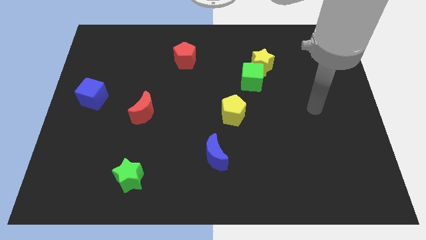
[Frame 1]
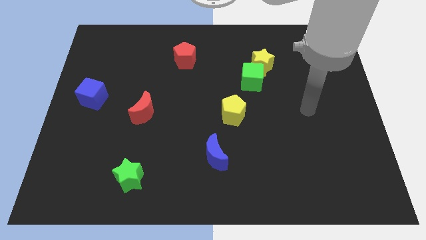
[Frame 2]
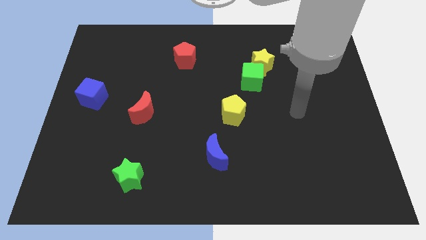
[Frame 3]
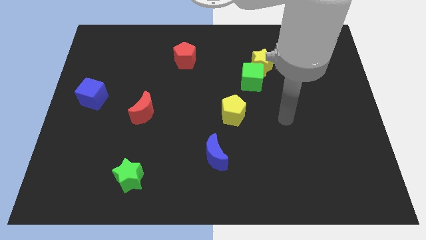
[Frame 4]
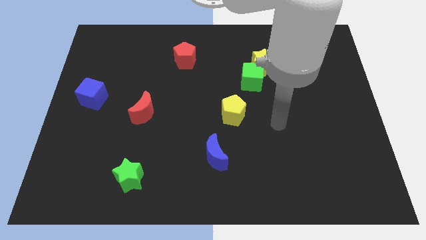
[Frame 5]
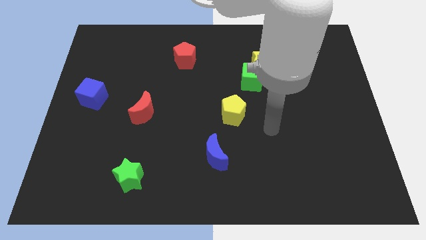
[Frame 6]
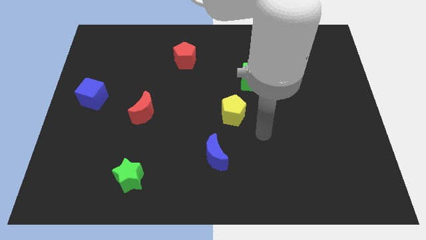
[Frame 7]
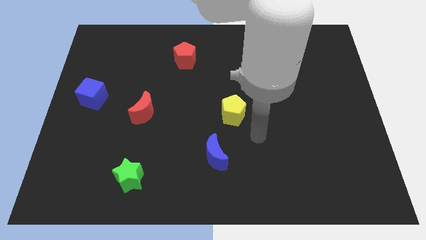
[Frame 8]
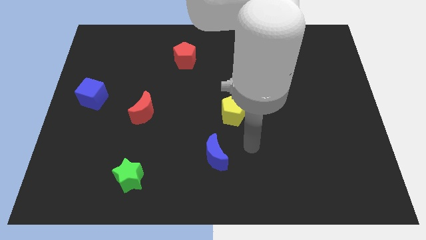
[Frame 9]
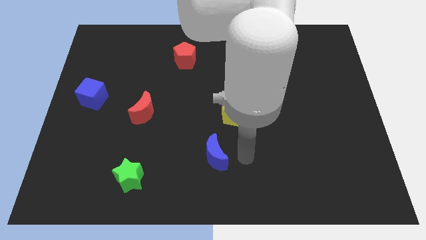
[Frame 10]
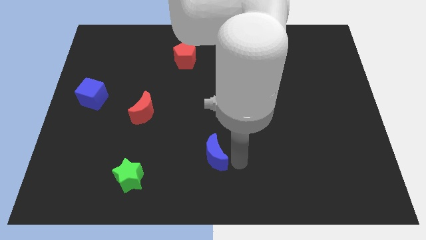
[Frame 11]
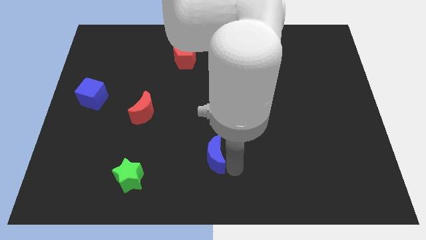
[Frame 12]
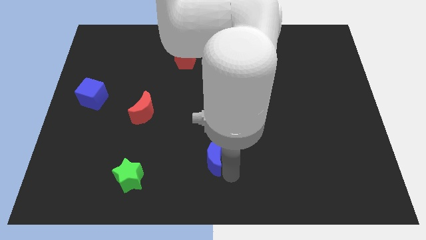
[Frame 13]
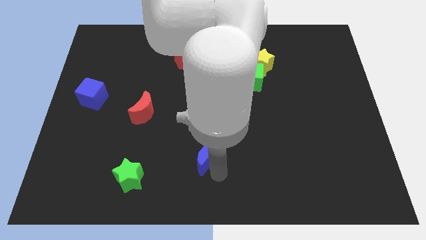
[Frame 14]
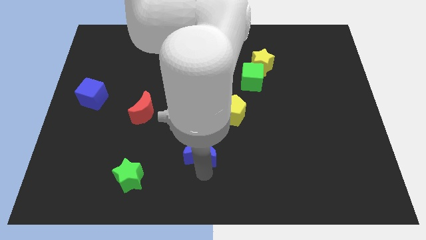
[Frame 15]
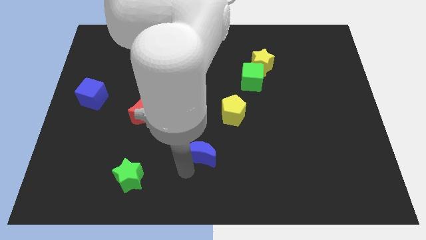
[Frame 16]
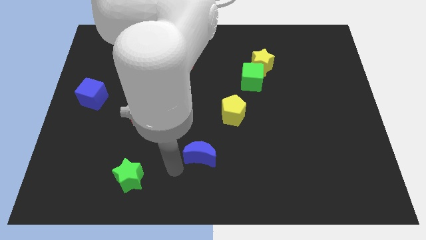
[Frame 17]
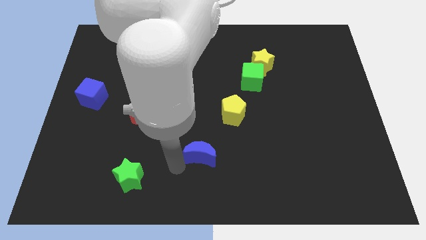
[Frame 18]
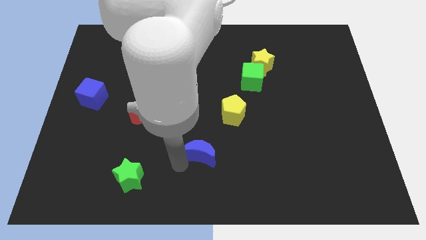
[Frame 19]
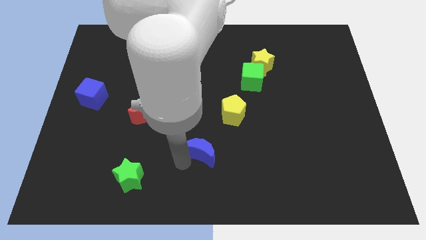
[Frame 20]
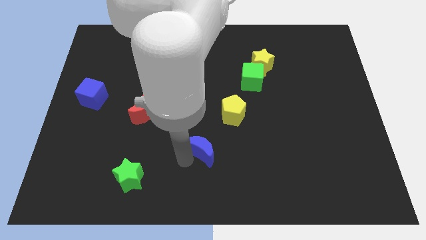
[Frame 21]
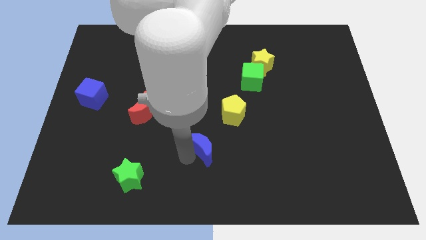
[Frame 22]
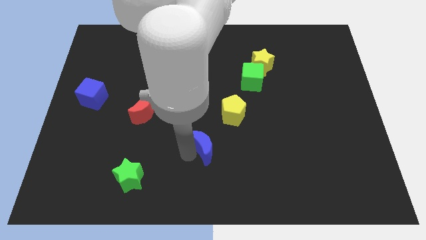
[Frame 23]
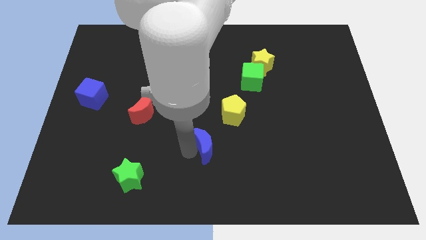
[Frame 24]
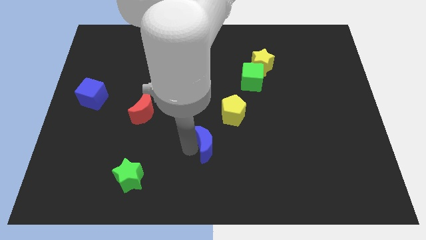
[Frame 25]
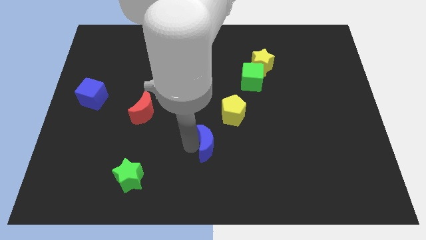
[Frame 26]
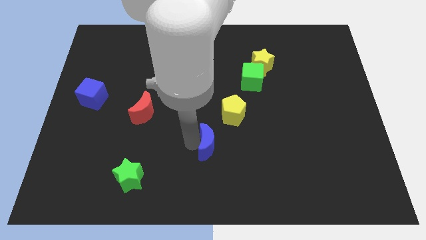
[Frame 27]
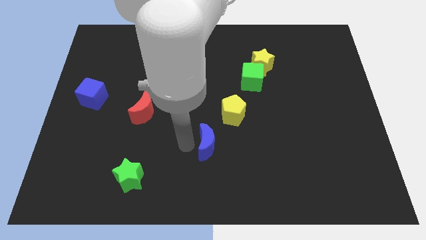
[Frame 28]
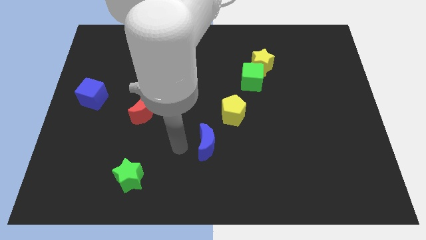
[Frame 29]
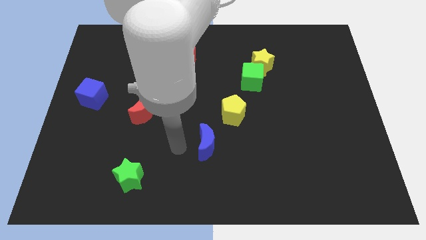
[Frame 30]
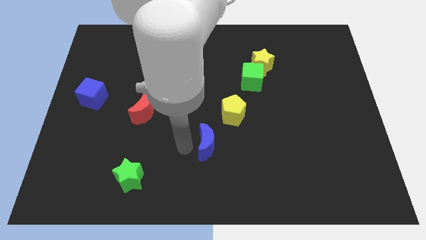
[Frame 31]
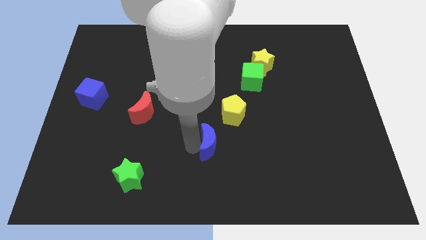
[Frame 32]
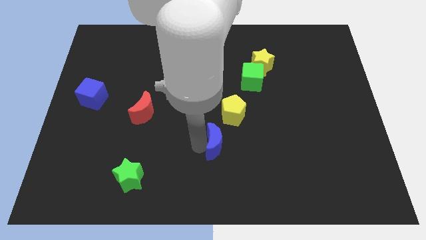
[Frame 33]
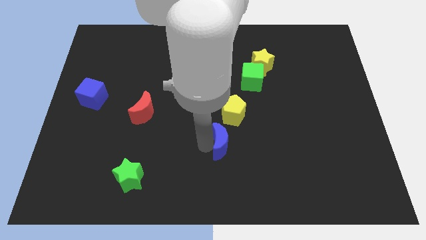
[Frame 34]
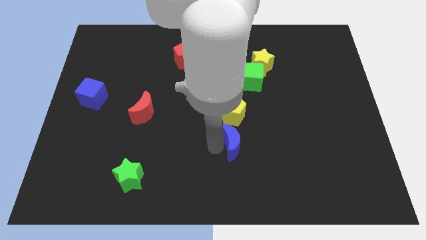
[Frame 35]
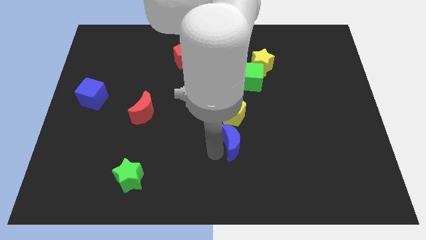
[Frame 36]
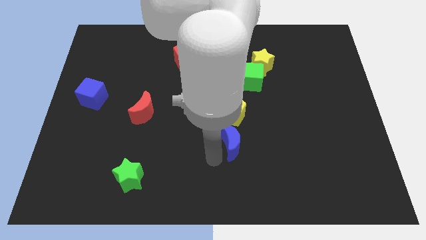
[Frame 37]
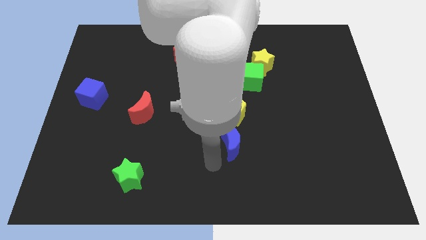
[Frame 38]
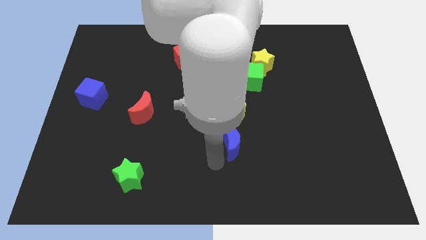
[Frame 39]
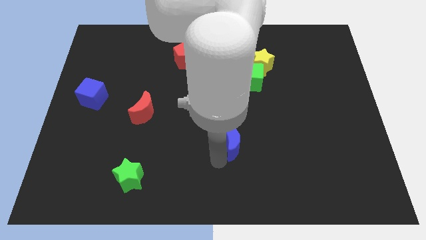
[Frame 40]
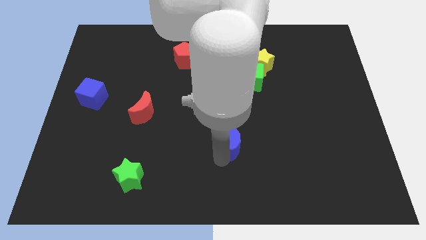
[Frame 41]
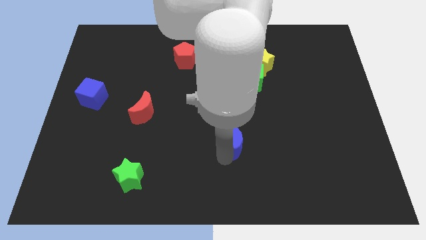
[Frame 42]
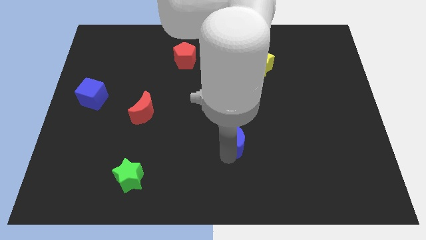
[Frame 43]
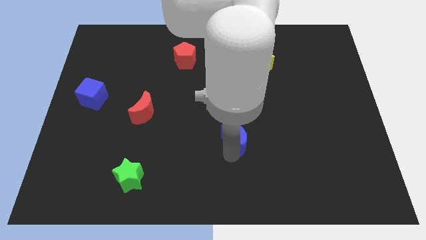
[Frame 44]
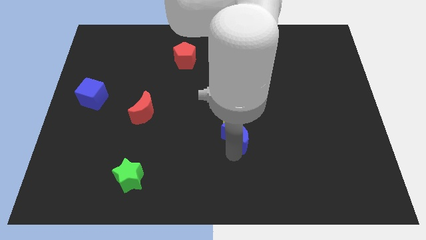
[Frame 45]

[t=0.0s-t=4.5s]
push the blue moon up and right diagonally a little bit

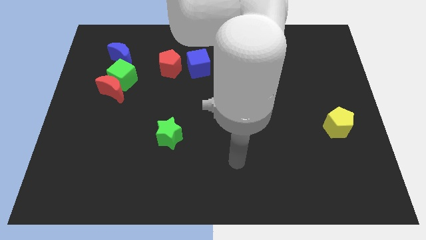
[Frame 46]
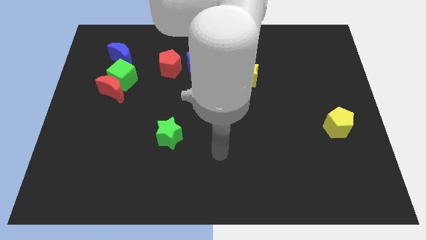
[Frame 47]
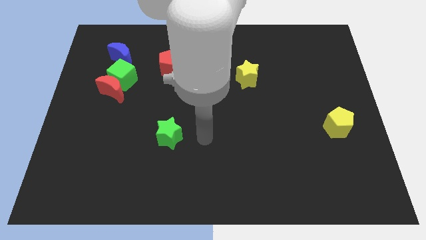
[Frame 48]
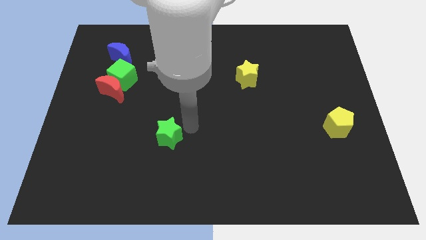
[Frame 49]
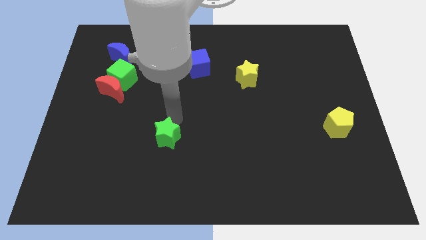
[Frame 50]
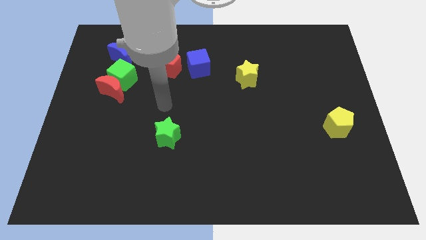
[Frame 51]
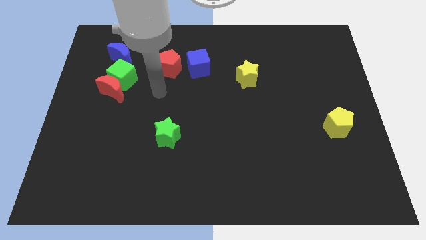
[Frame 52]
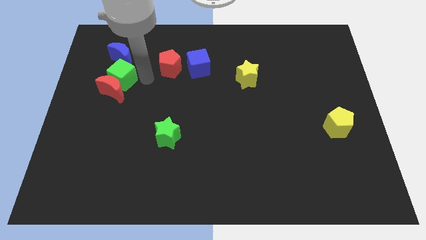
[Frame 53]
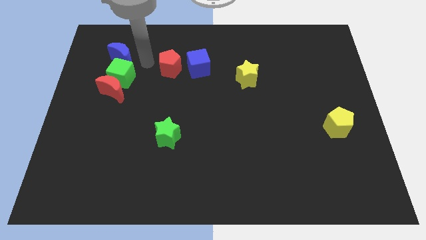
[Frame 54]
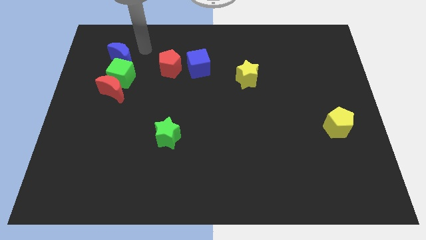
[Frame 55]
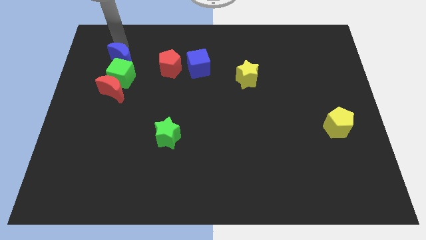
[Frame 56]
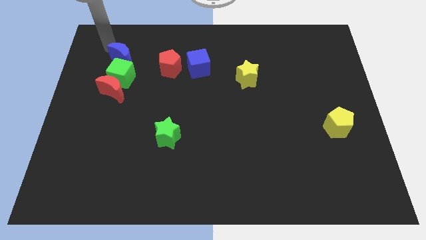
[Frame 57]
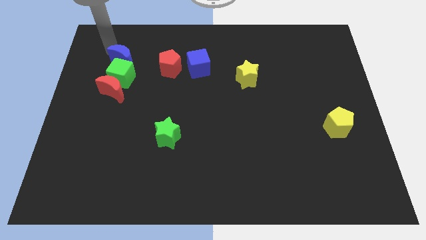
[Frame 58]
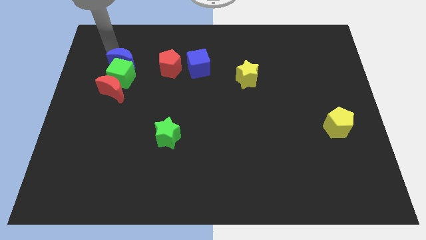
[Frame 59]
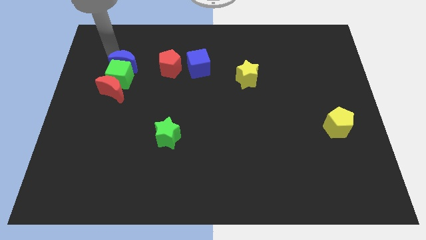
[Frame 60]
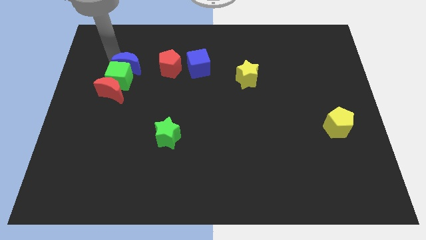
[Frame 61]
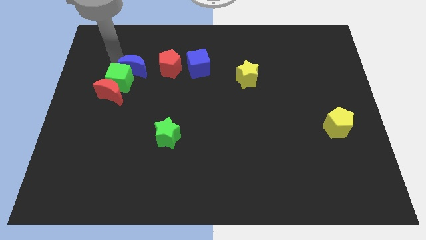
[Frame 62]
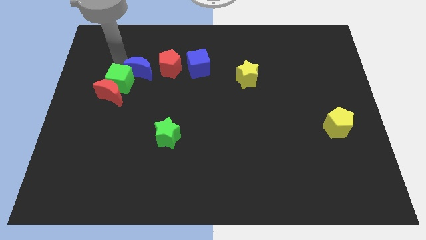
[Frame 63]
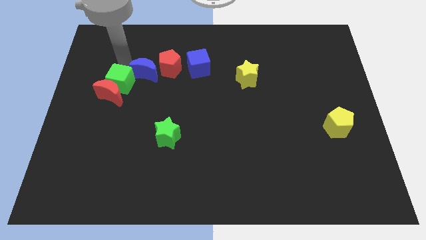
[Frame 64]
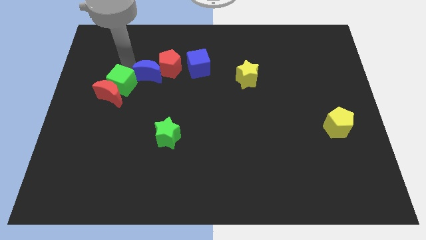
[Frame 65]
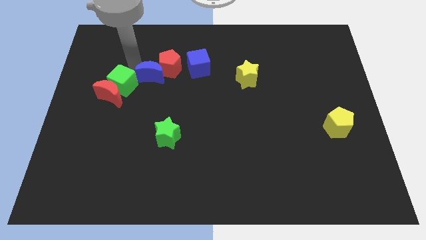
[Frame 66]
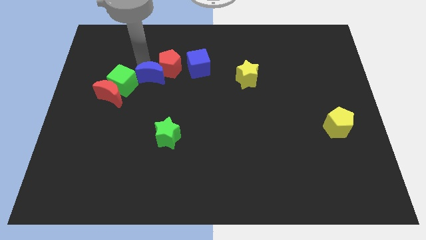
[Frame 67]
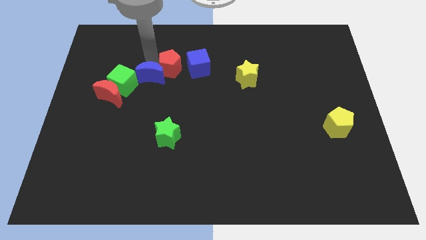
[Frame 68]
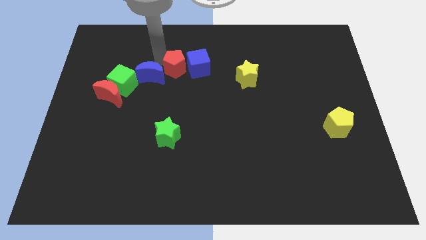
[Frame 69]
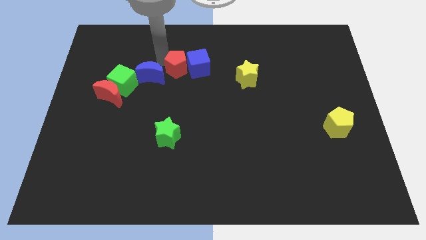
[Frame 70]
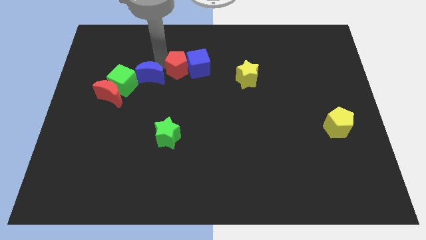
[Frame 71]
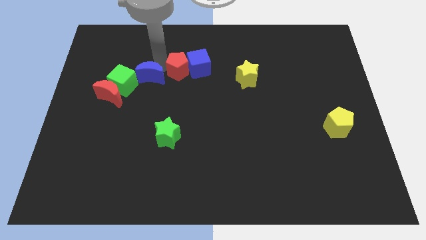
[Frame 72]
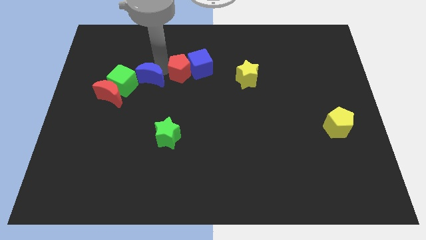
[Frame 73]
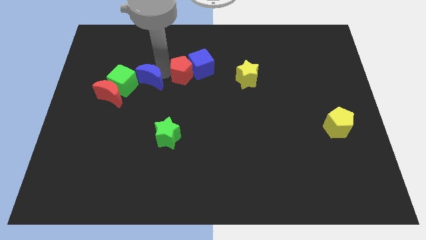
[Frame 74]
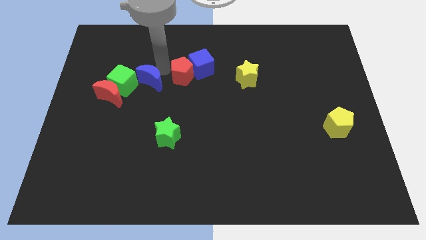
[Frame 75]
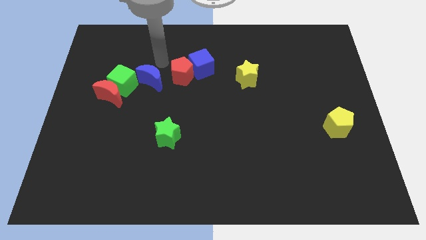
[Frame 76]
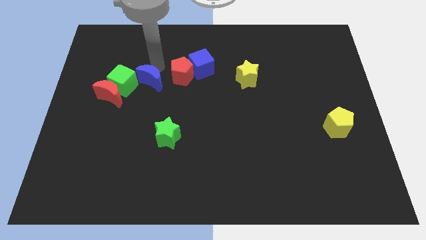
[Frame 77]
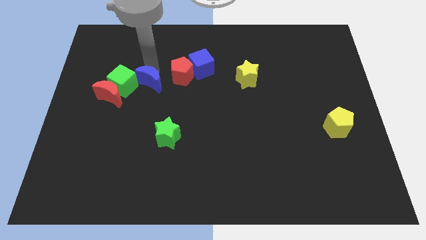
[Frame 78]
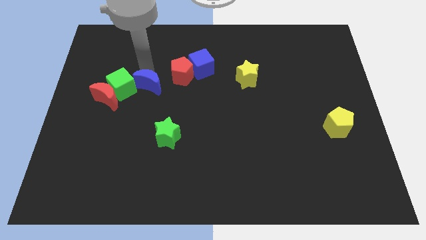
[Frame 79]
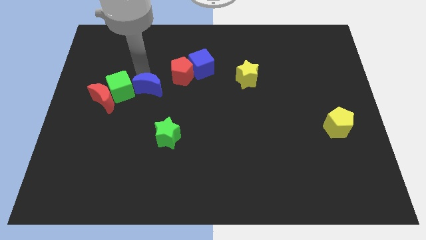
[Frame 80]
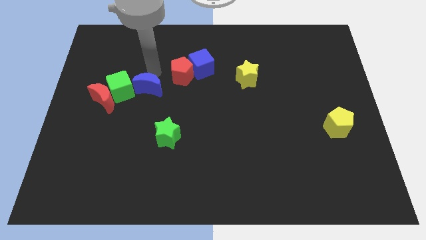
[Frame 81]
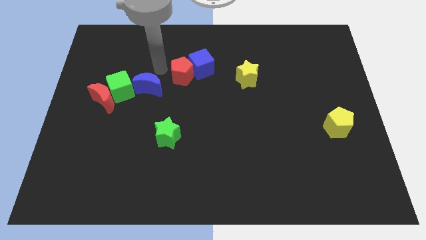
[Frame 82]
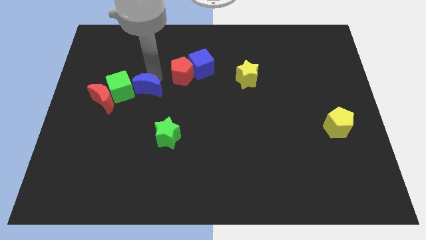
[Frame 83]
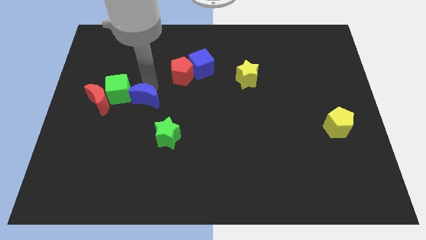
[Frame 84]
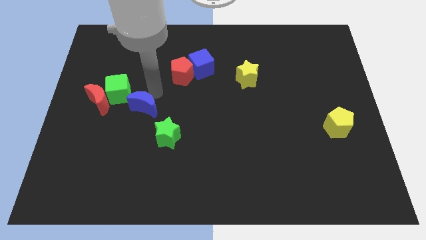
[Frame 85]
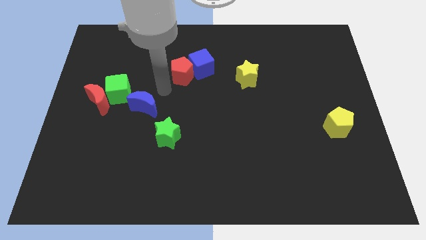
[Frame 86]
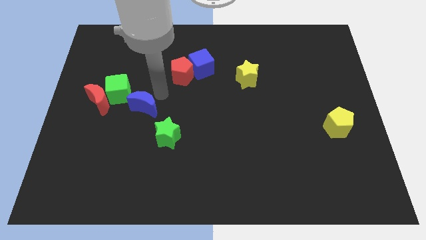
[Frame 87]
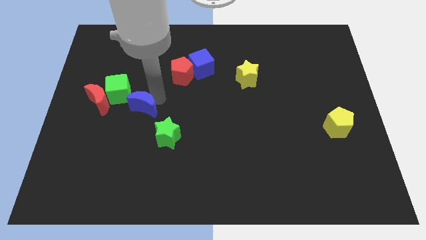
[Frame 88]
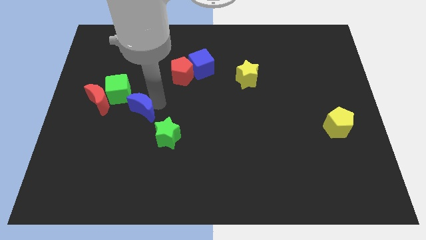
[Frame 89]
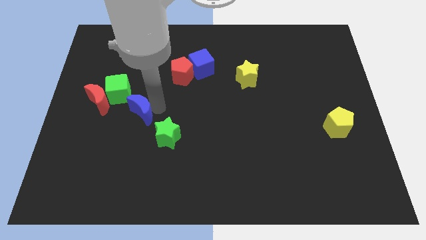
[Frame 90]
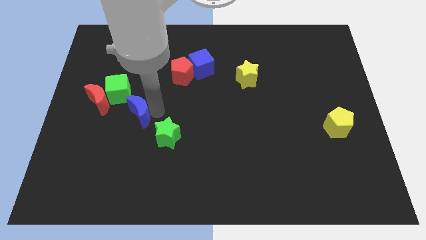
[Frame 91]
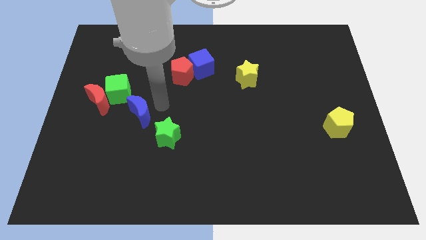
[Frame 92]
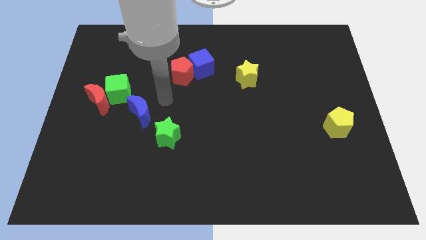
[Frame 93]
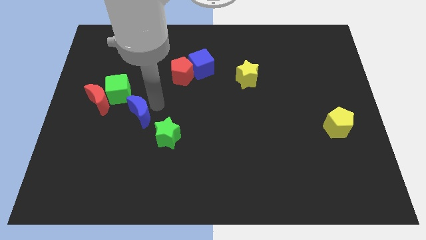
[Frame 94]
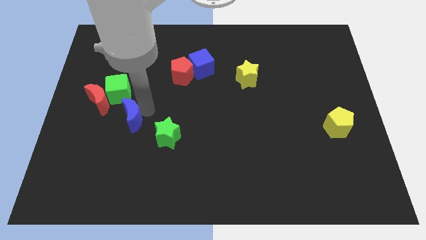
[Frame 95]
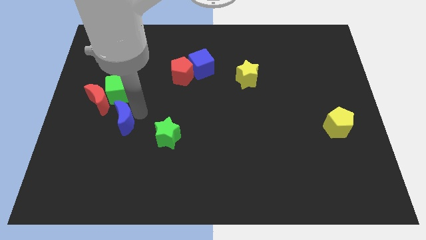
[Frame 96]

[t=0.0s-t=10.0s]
slide the blue moon down
